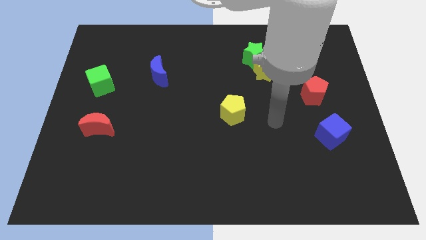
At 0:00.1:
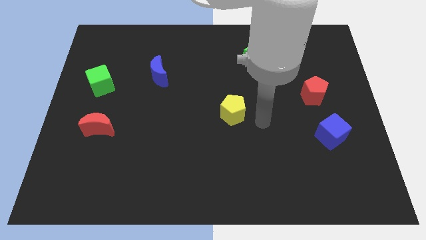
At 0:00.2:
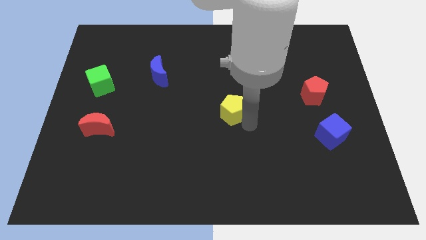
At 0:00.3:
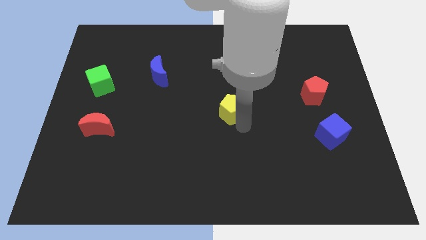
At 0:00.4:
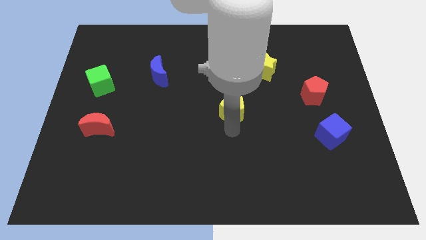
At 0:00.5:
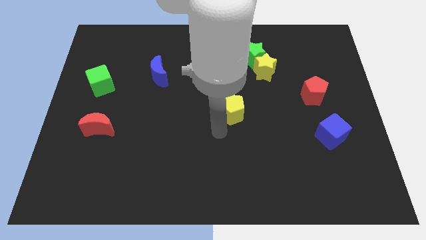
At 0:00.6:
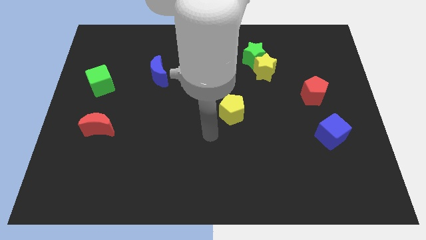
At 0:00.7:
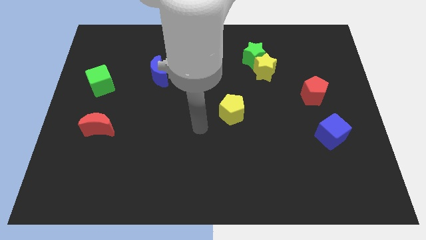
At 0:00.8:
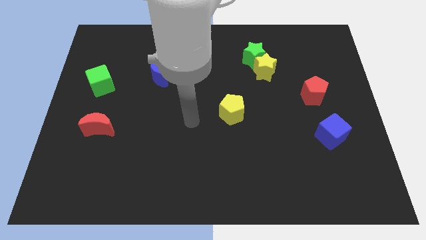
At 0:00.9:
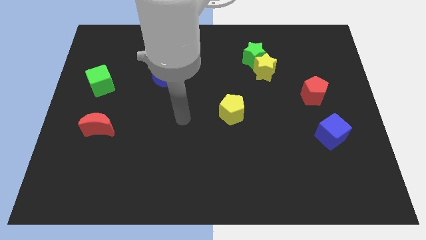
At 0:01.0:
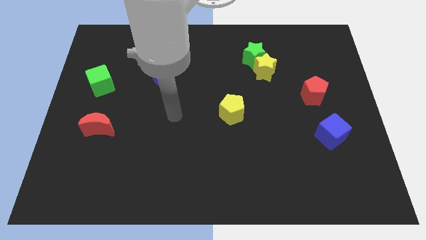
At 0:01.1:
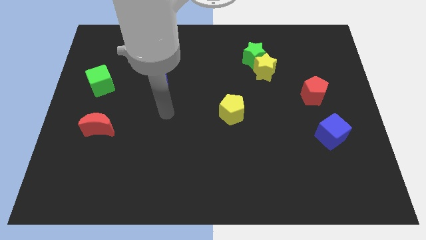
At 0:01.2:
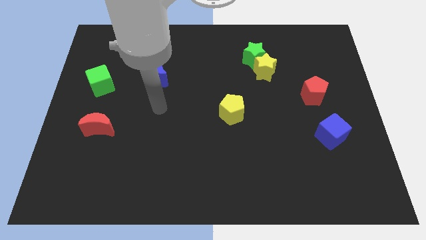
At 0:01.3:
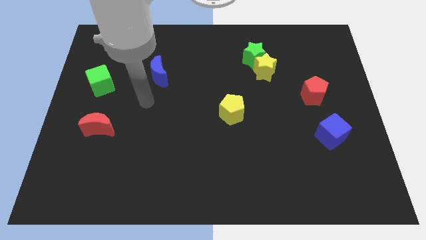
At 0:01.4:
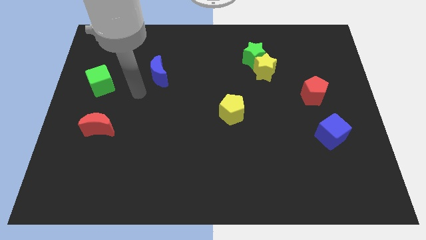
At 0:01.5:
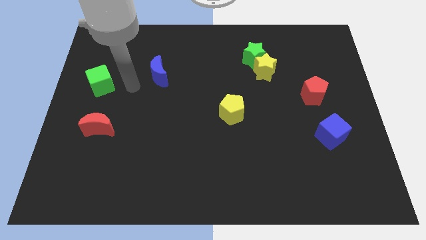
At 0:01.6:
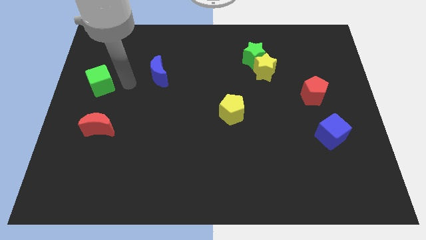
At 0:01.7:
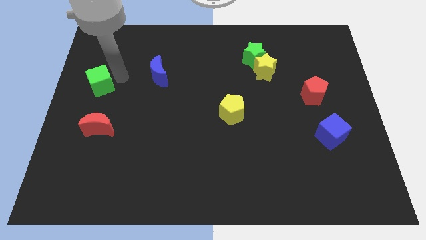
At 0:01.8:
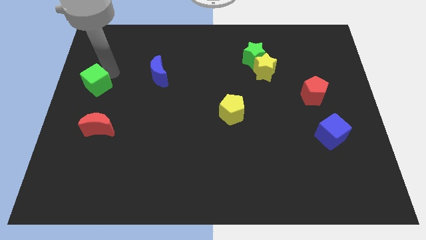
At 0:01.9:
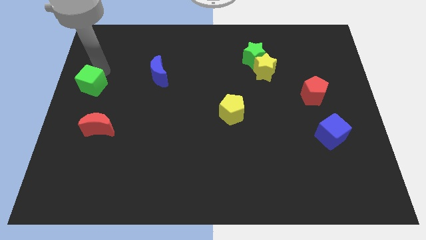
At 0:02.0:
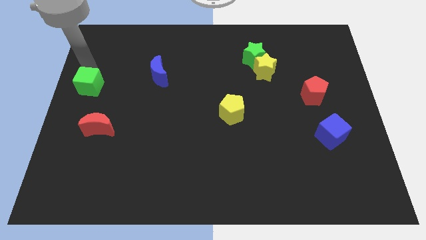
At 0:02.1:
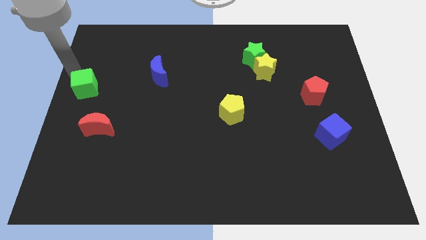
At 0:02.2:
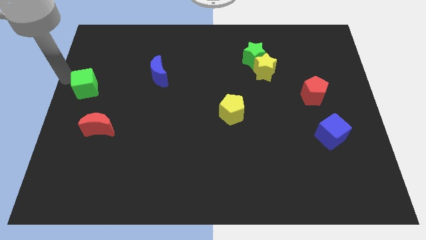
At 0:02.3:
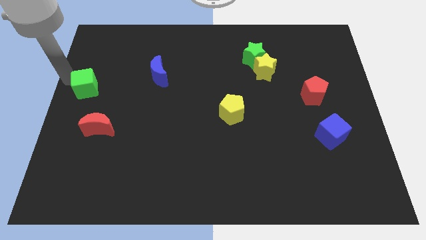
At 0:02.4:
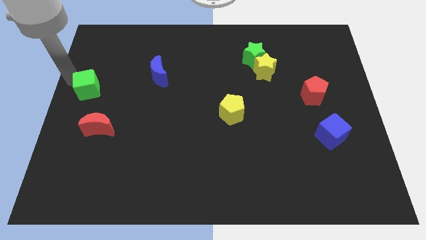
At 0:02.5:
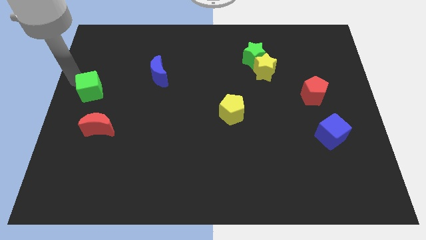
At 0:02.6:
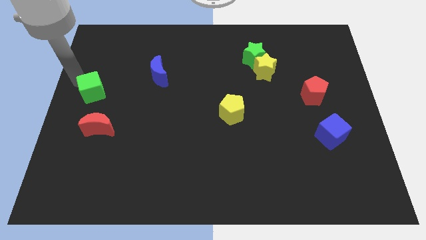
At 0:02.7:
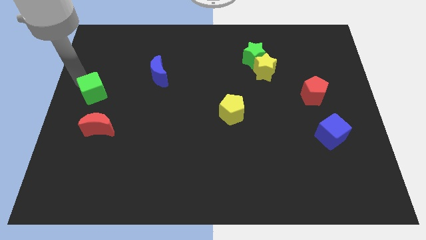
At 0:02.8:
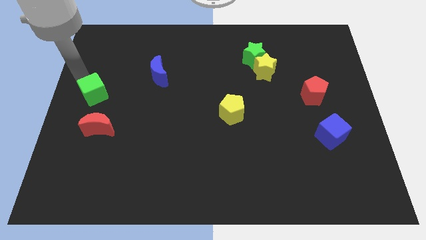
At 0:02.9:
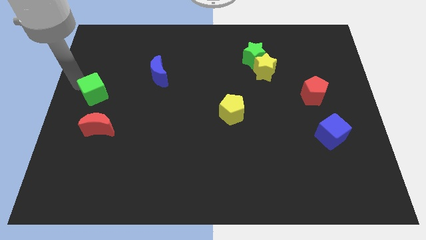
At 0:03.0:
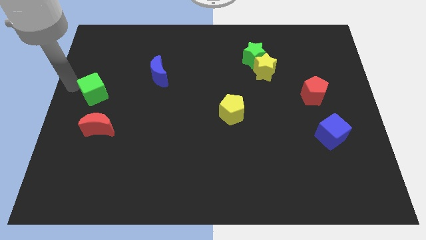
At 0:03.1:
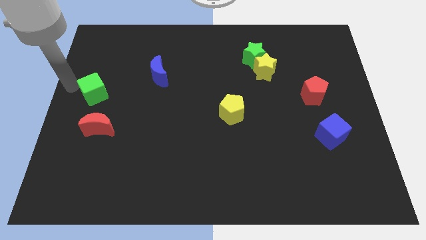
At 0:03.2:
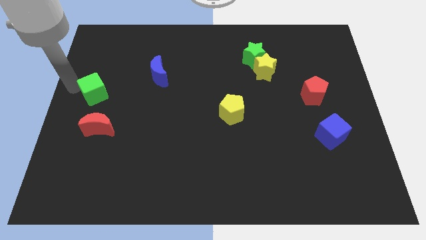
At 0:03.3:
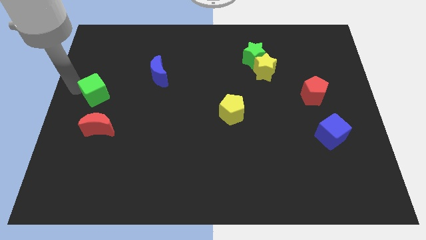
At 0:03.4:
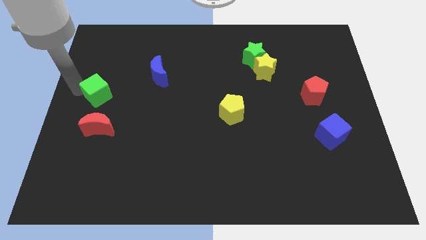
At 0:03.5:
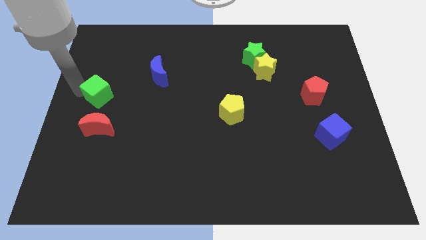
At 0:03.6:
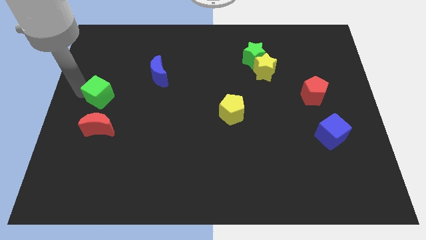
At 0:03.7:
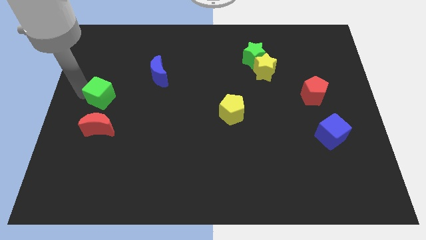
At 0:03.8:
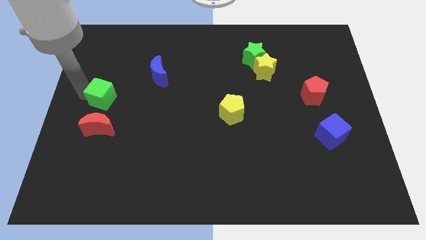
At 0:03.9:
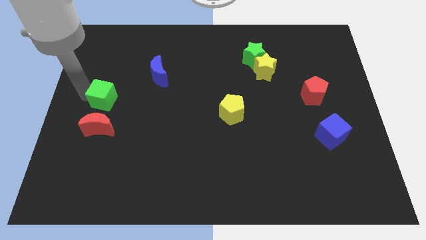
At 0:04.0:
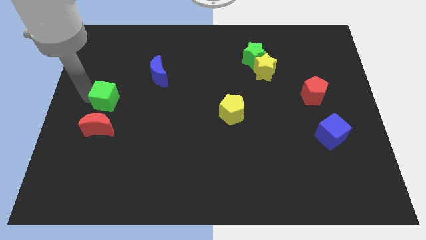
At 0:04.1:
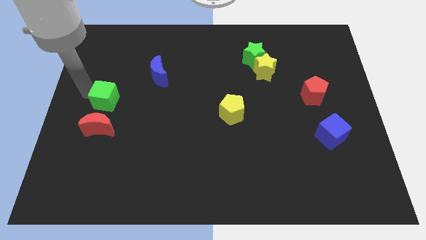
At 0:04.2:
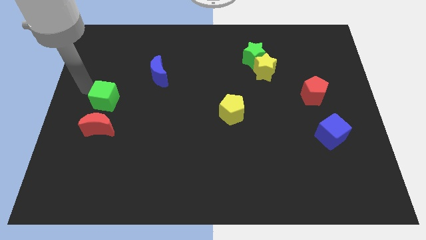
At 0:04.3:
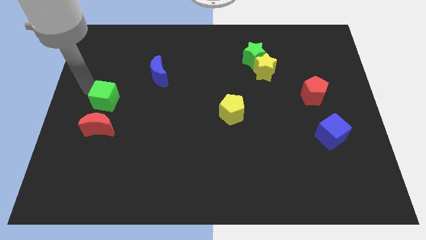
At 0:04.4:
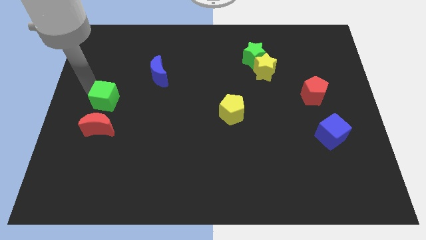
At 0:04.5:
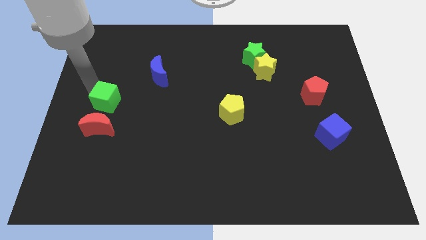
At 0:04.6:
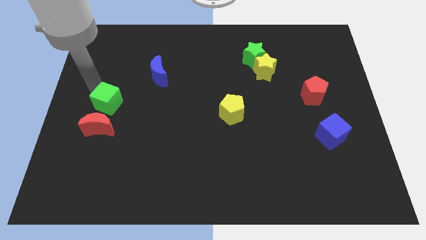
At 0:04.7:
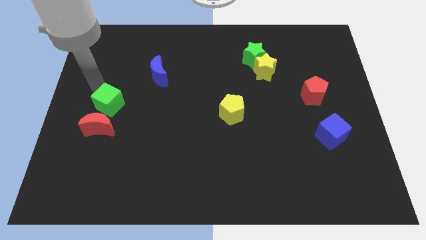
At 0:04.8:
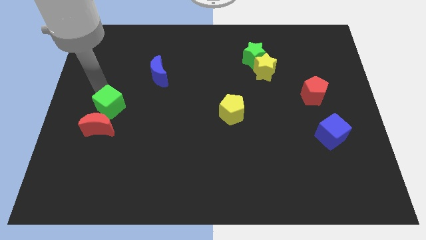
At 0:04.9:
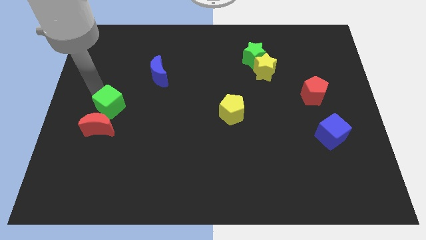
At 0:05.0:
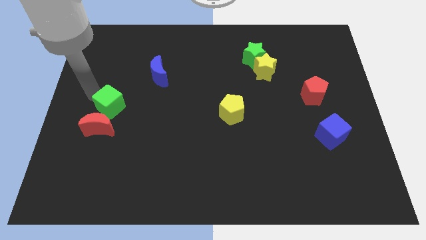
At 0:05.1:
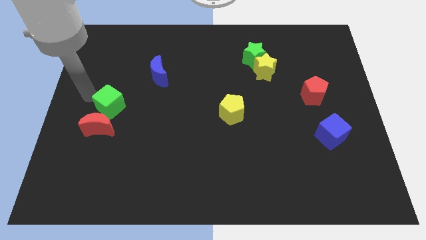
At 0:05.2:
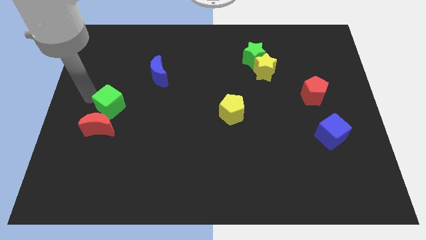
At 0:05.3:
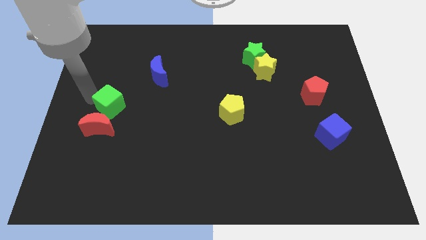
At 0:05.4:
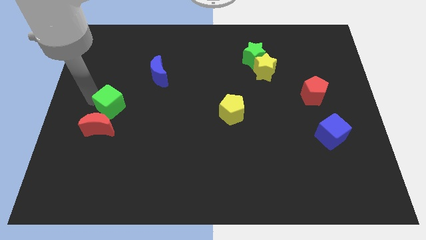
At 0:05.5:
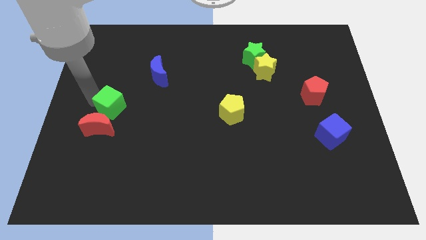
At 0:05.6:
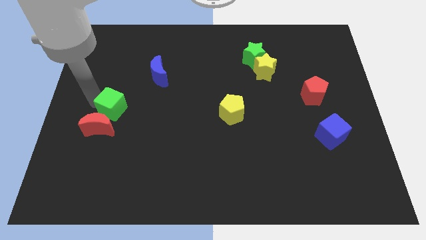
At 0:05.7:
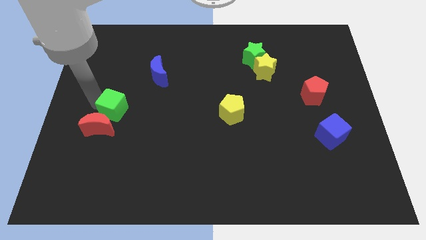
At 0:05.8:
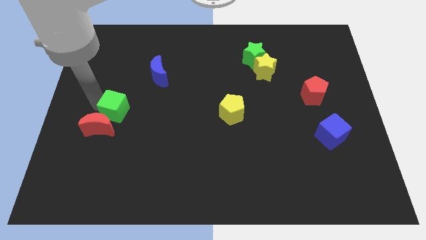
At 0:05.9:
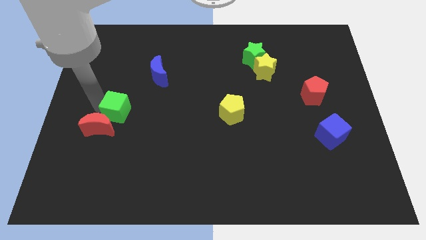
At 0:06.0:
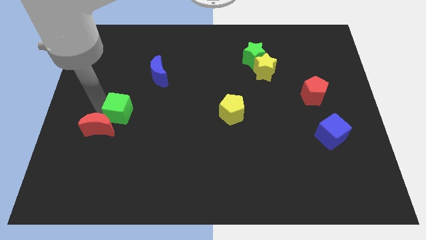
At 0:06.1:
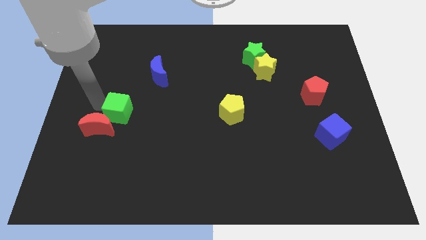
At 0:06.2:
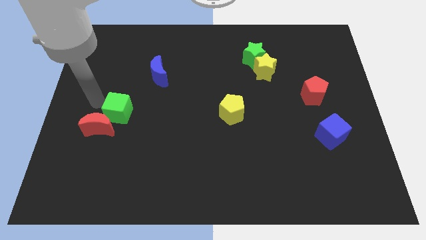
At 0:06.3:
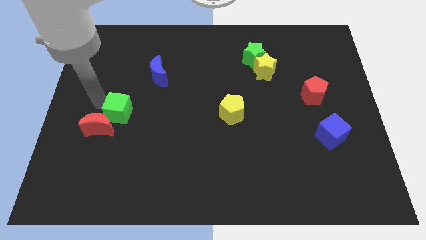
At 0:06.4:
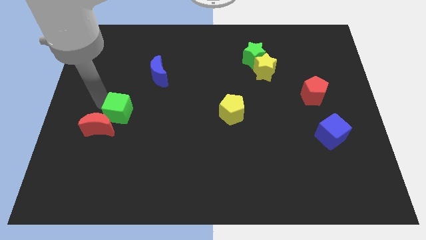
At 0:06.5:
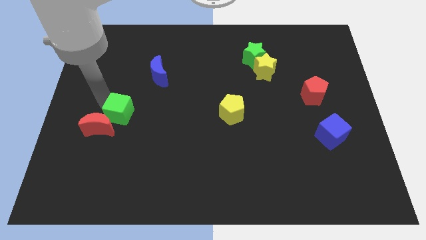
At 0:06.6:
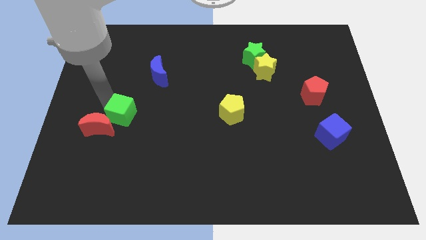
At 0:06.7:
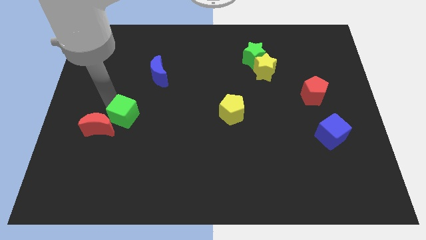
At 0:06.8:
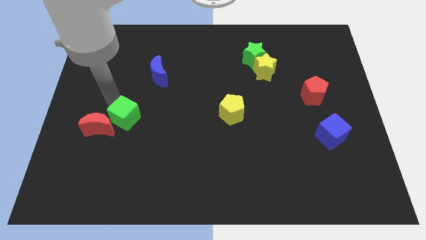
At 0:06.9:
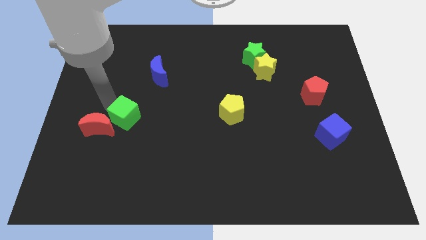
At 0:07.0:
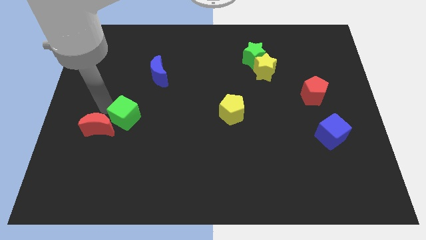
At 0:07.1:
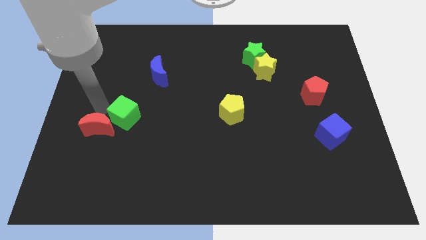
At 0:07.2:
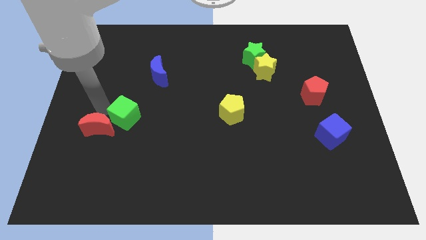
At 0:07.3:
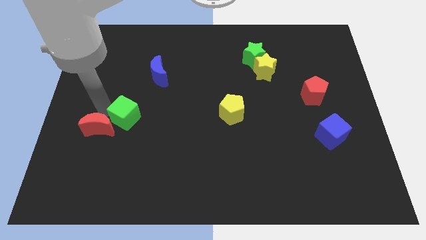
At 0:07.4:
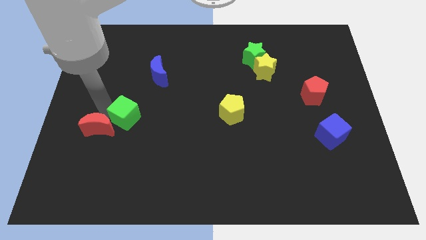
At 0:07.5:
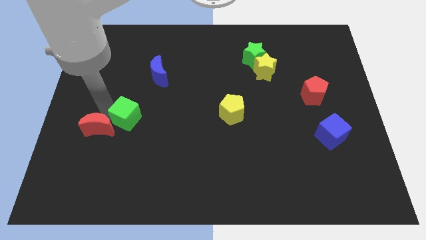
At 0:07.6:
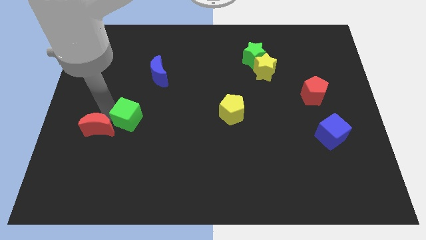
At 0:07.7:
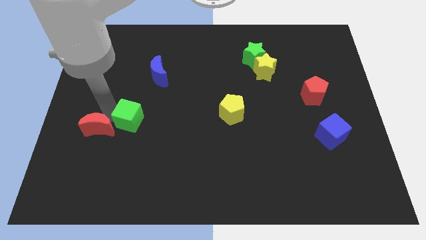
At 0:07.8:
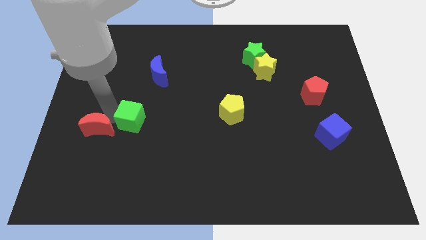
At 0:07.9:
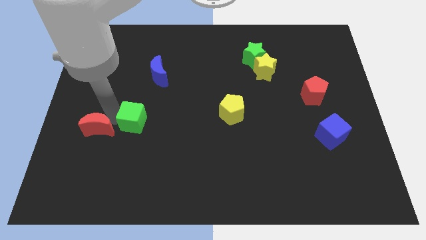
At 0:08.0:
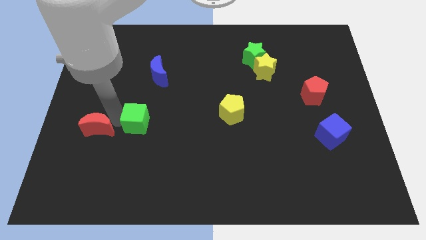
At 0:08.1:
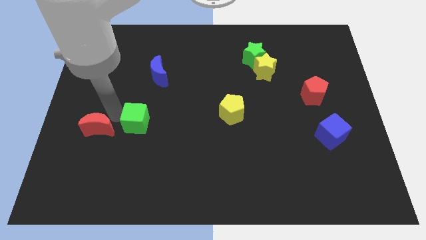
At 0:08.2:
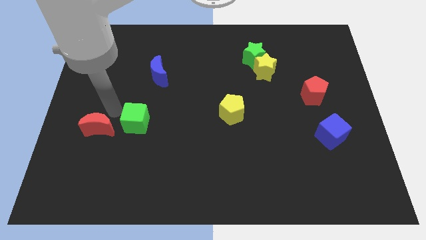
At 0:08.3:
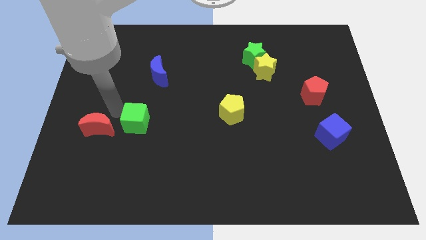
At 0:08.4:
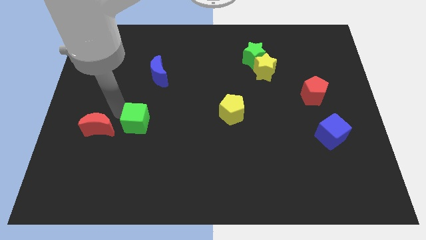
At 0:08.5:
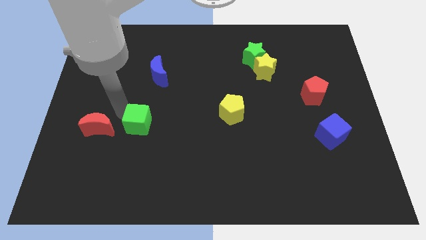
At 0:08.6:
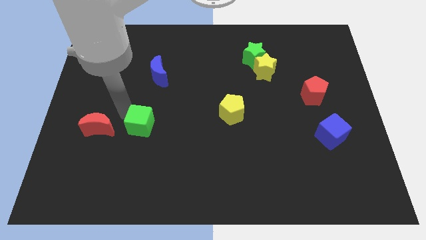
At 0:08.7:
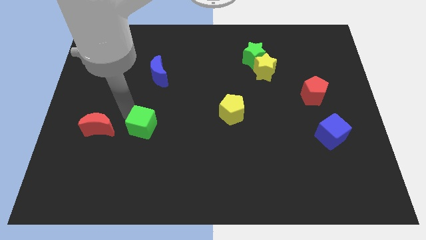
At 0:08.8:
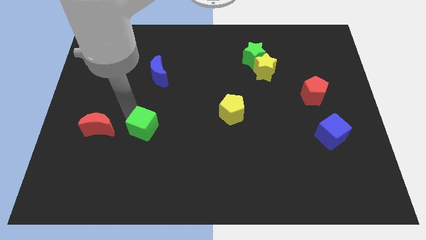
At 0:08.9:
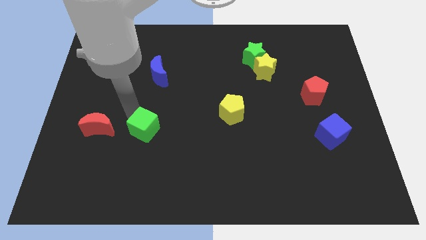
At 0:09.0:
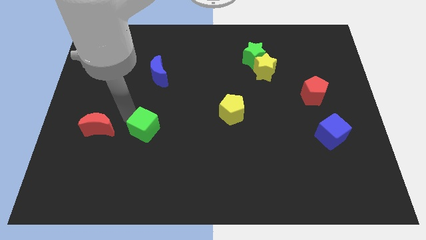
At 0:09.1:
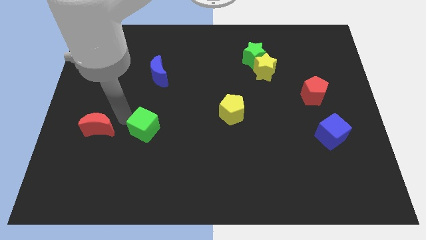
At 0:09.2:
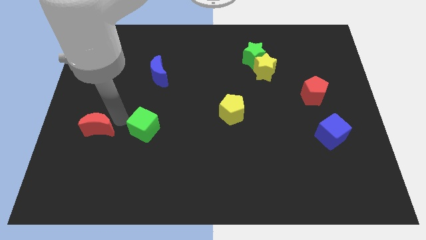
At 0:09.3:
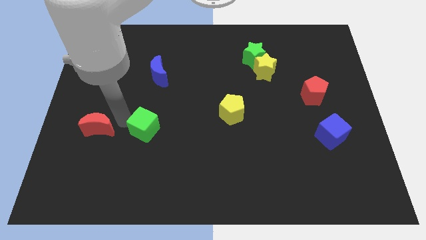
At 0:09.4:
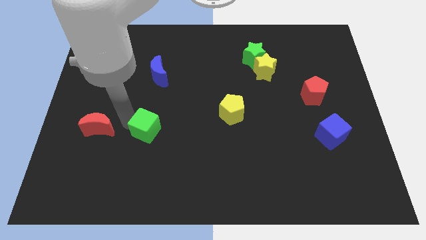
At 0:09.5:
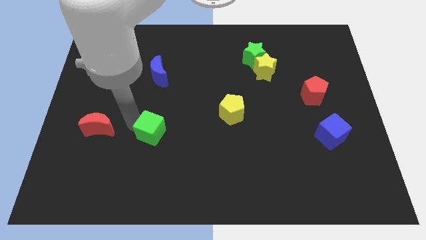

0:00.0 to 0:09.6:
move the green cube down and then to the right
